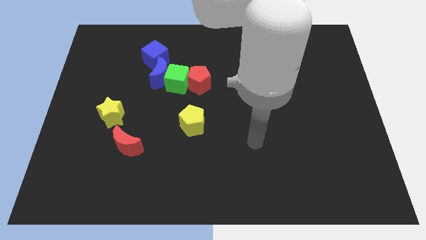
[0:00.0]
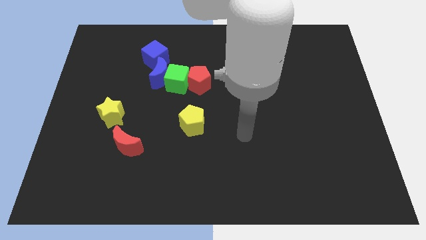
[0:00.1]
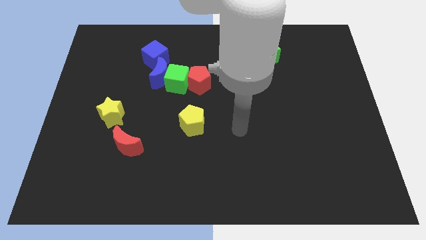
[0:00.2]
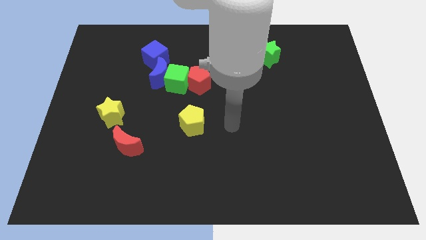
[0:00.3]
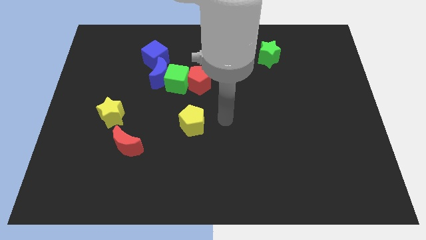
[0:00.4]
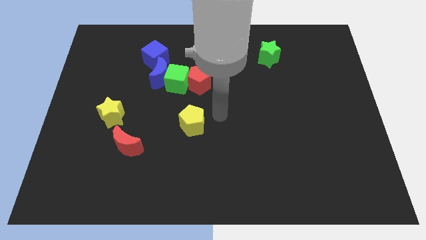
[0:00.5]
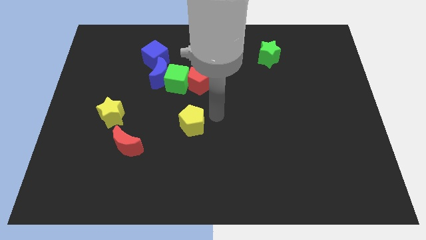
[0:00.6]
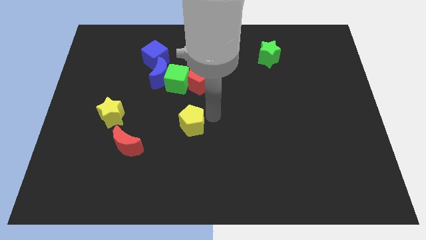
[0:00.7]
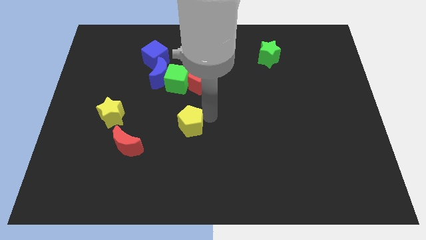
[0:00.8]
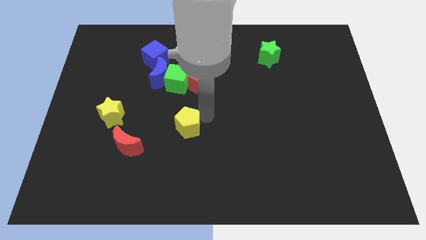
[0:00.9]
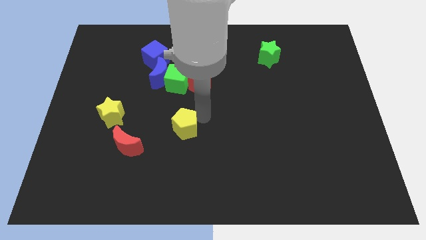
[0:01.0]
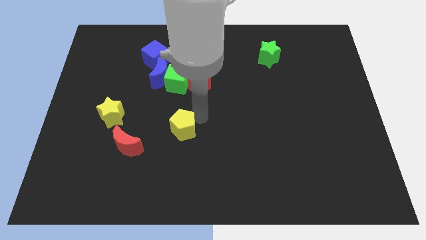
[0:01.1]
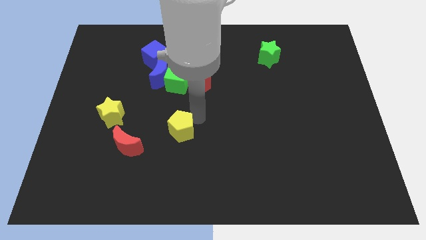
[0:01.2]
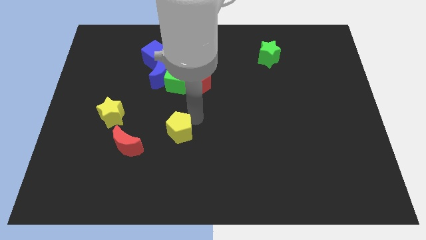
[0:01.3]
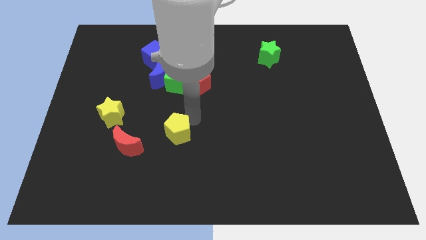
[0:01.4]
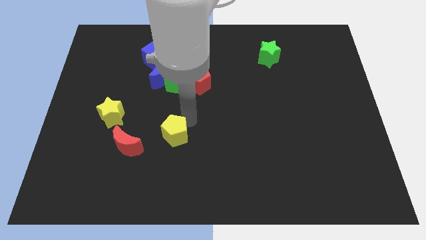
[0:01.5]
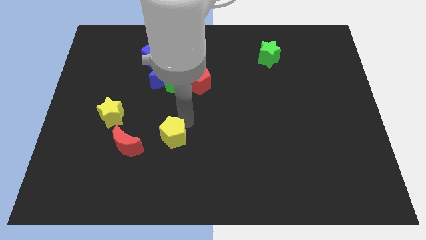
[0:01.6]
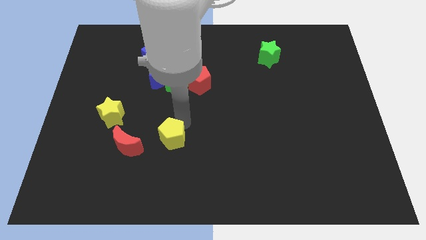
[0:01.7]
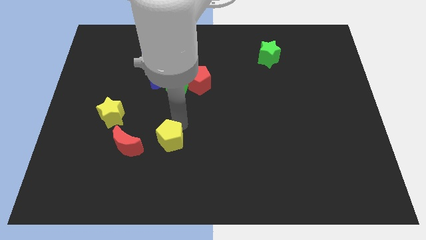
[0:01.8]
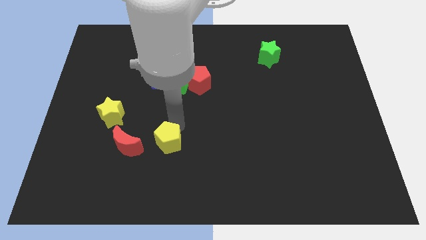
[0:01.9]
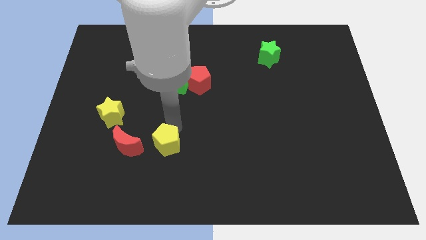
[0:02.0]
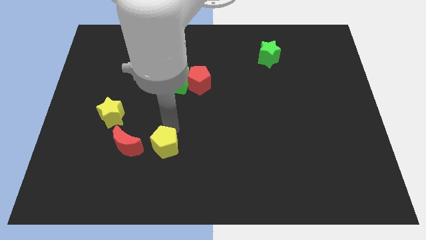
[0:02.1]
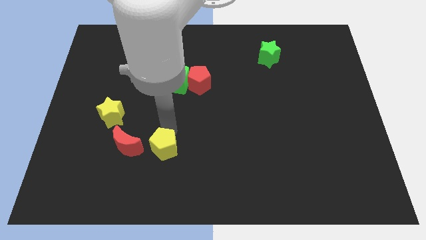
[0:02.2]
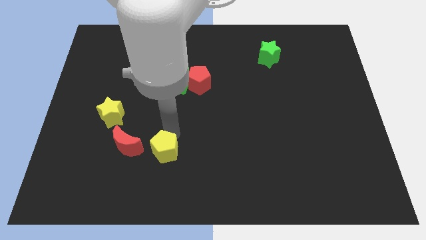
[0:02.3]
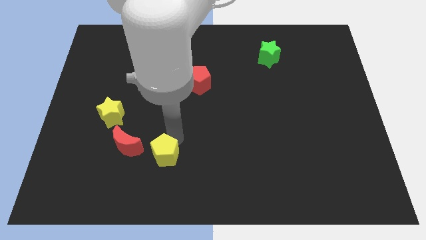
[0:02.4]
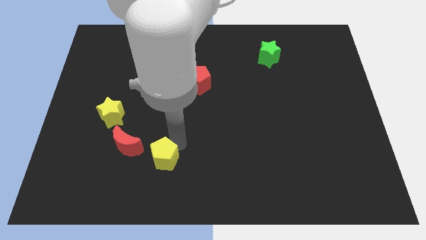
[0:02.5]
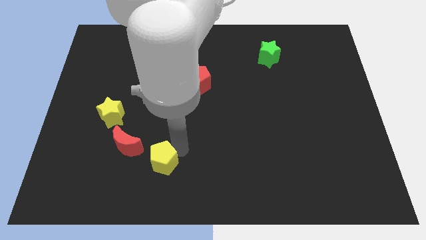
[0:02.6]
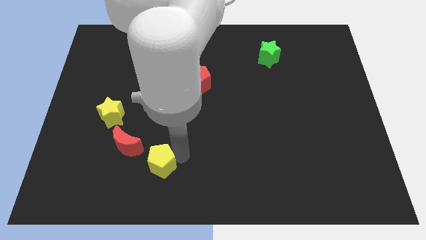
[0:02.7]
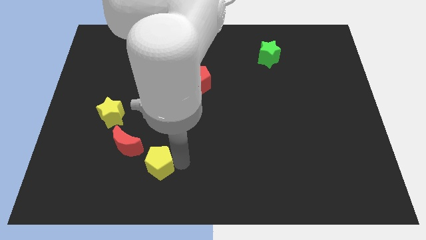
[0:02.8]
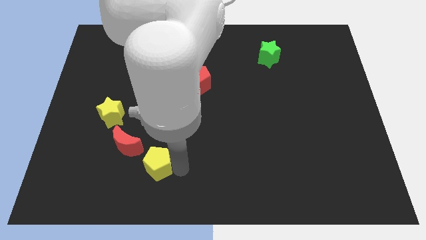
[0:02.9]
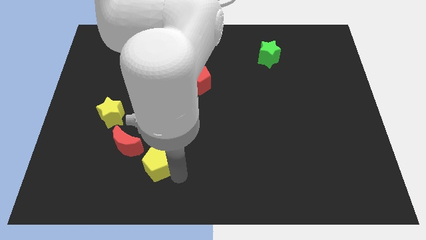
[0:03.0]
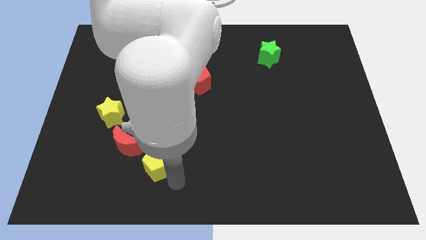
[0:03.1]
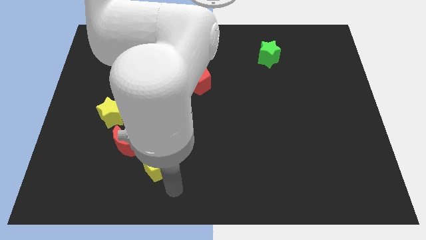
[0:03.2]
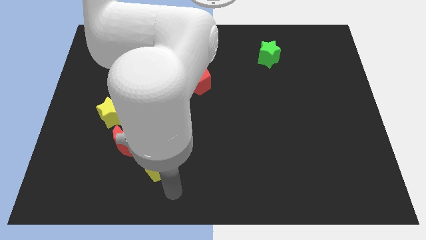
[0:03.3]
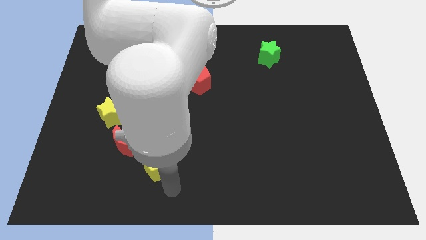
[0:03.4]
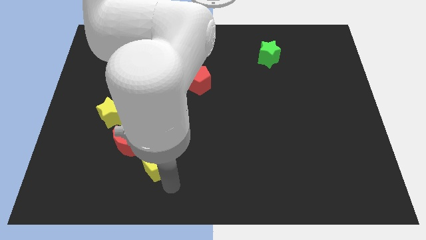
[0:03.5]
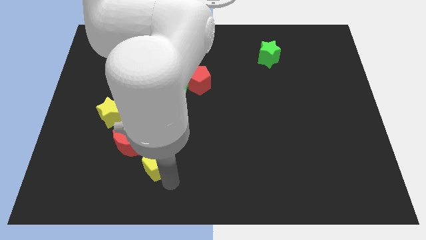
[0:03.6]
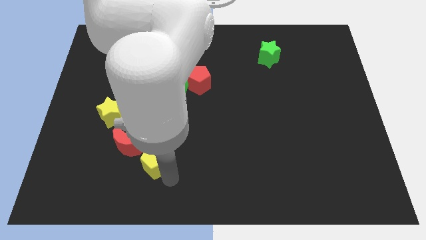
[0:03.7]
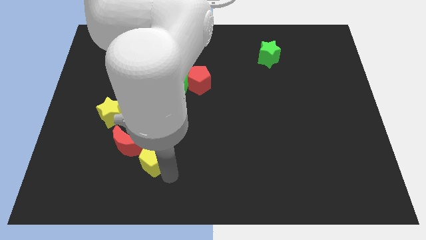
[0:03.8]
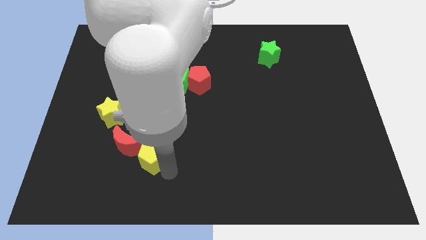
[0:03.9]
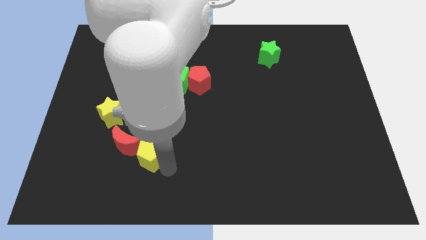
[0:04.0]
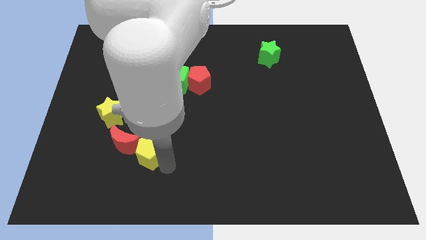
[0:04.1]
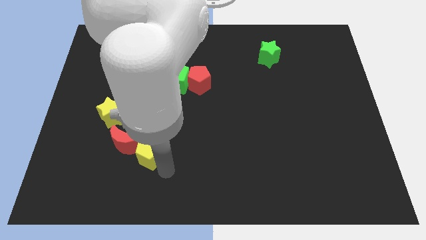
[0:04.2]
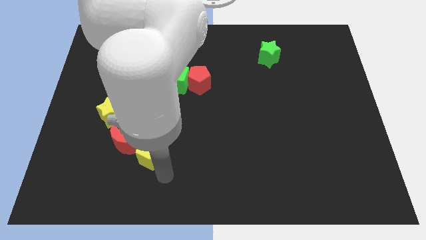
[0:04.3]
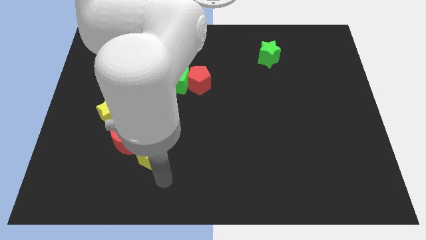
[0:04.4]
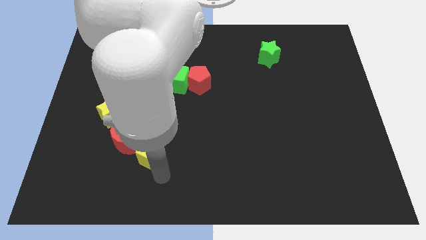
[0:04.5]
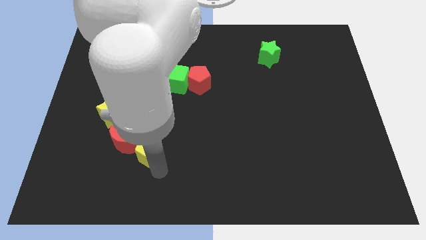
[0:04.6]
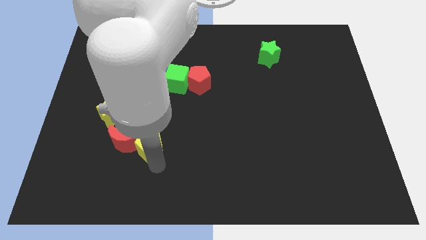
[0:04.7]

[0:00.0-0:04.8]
put the yellow pentagon close to the red moon

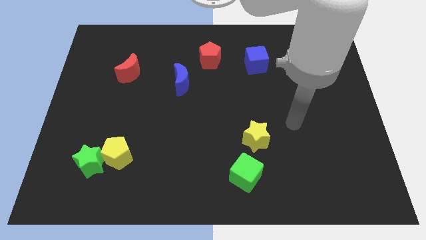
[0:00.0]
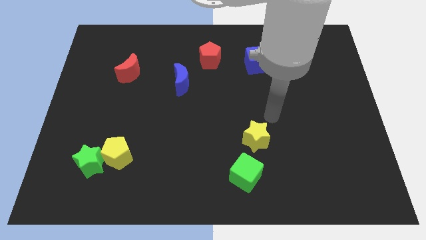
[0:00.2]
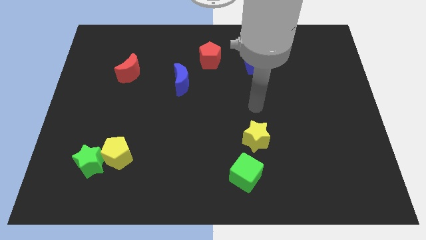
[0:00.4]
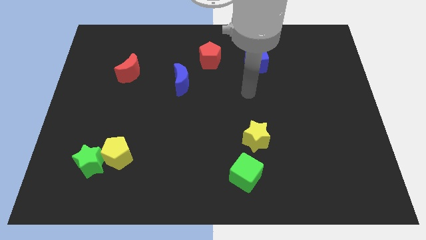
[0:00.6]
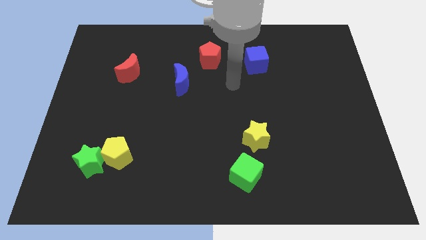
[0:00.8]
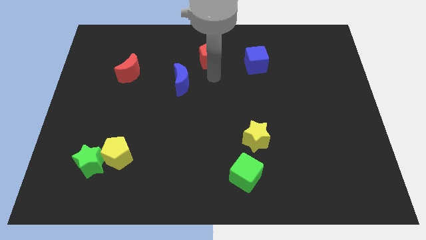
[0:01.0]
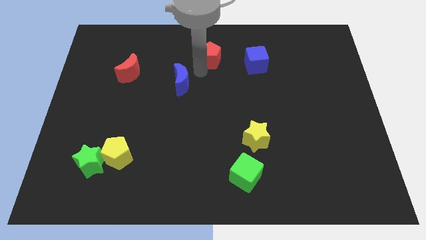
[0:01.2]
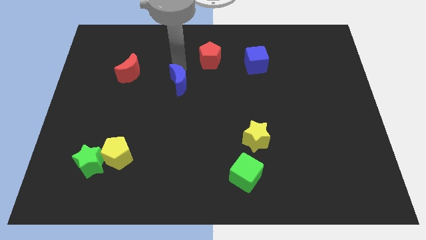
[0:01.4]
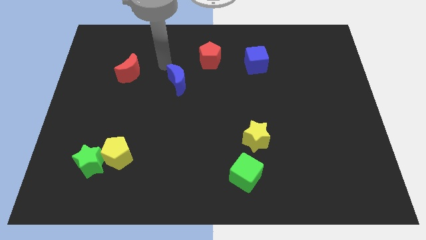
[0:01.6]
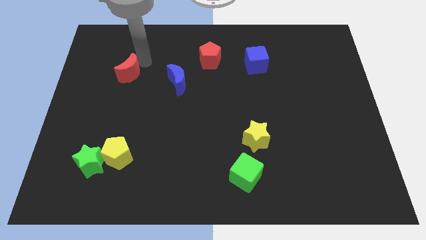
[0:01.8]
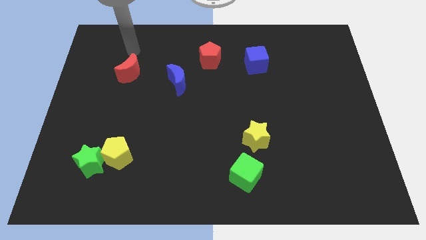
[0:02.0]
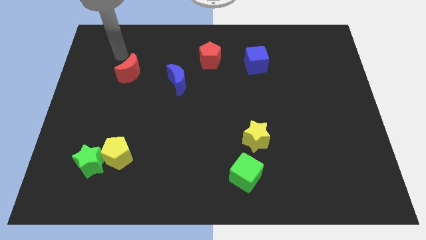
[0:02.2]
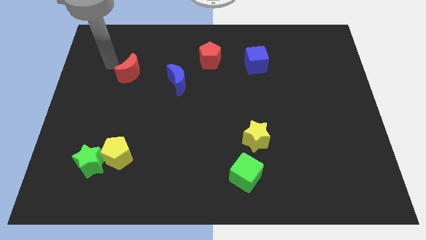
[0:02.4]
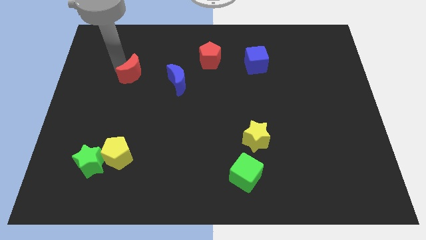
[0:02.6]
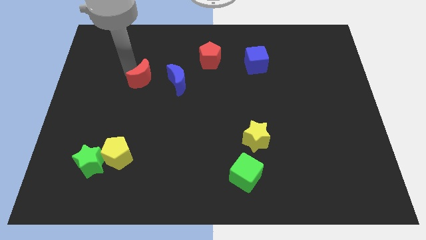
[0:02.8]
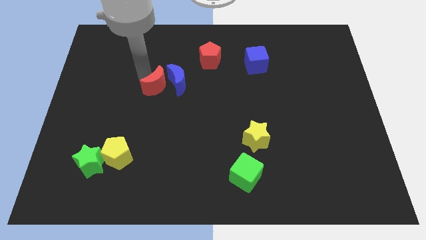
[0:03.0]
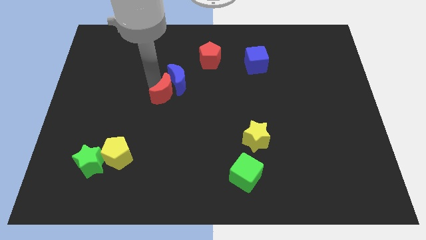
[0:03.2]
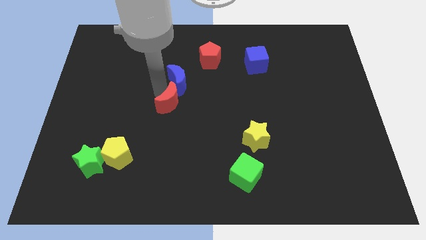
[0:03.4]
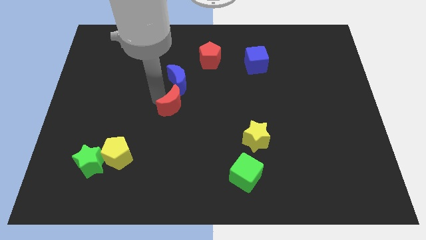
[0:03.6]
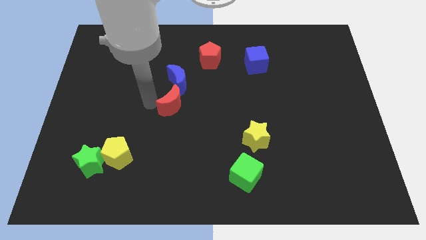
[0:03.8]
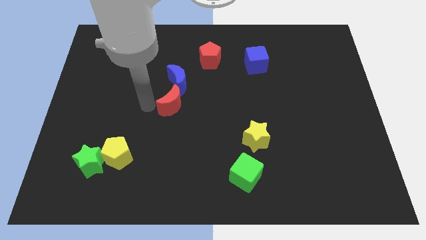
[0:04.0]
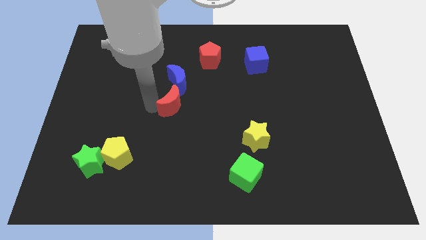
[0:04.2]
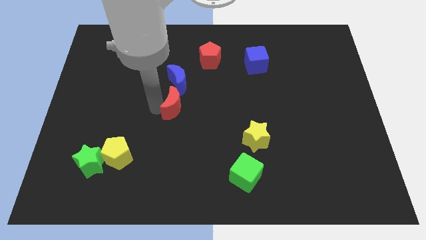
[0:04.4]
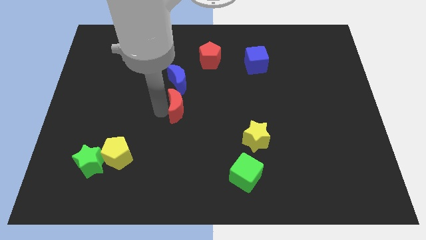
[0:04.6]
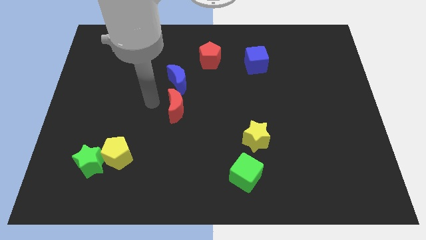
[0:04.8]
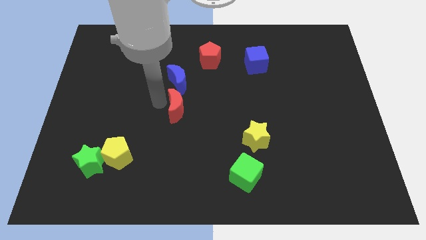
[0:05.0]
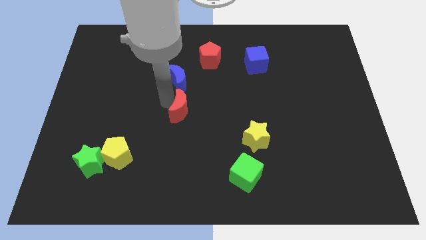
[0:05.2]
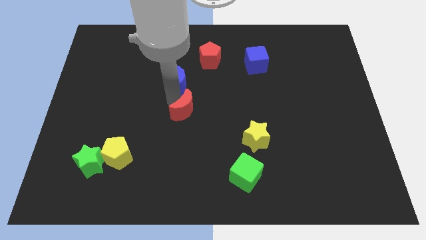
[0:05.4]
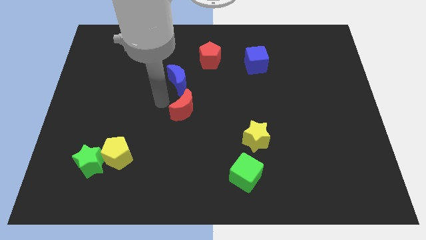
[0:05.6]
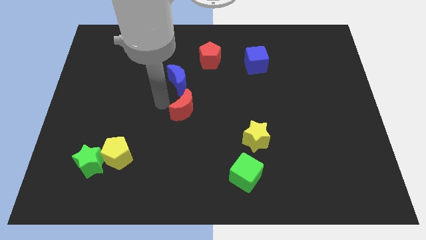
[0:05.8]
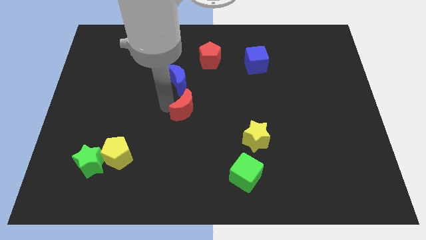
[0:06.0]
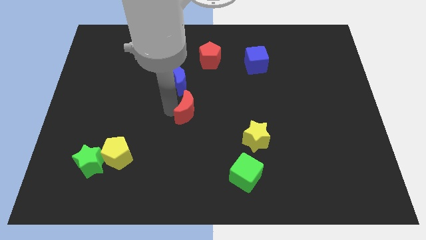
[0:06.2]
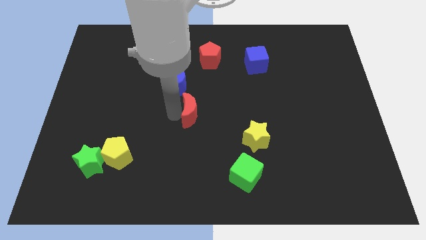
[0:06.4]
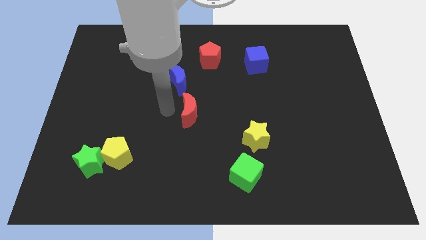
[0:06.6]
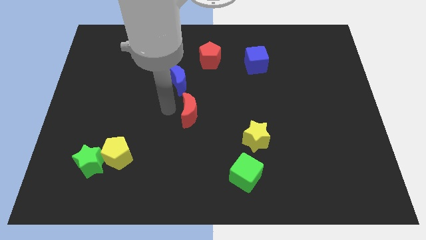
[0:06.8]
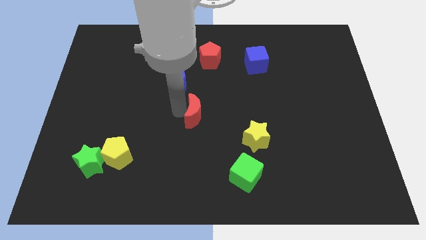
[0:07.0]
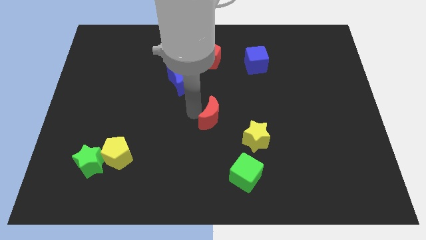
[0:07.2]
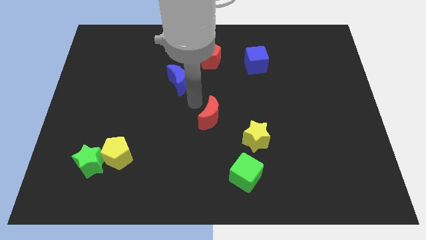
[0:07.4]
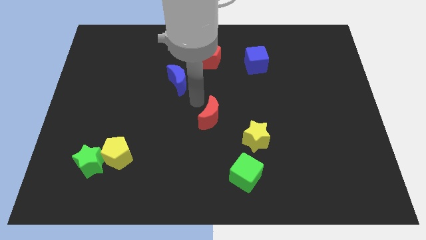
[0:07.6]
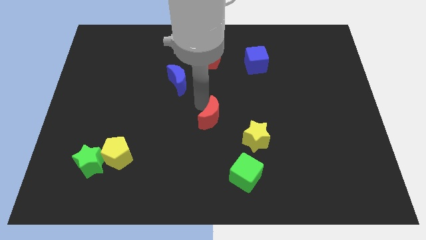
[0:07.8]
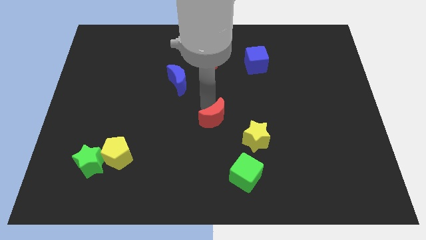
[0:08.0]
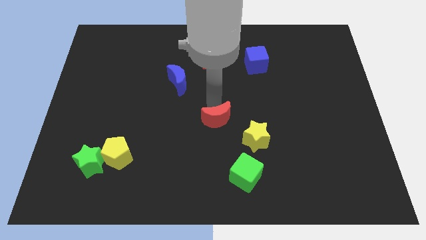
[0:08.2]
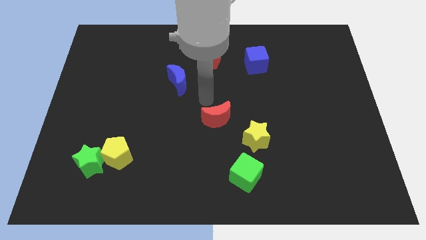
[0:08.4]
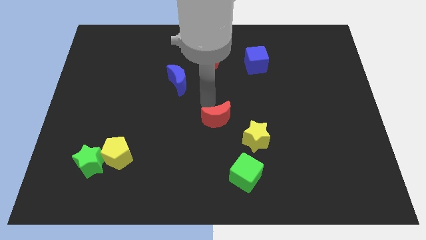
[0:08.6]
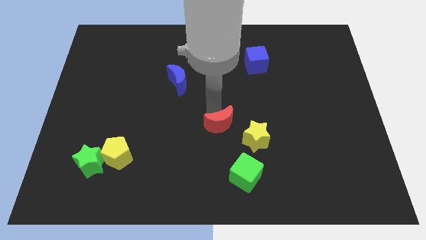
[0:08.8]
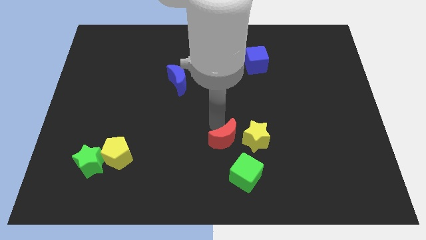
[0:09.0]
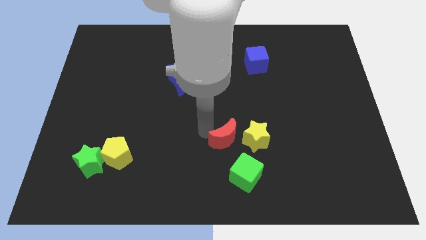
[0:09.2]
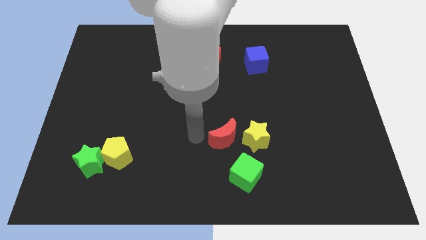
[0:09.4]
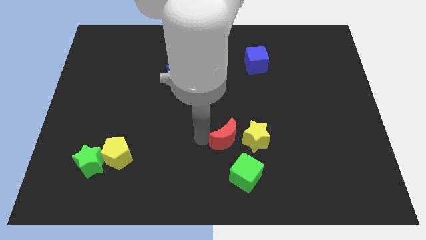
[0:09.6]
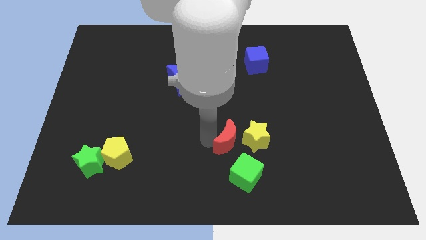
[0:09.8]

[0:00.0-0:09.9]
put the red moon next to the yellow star
